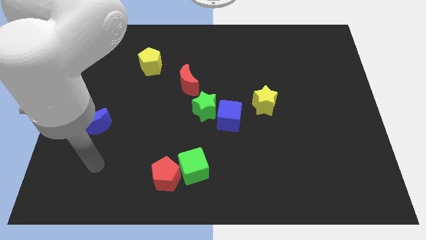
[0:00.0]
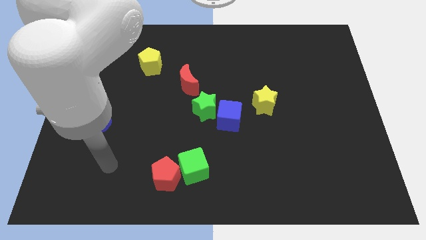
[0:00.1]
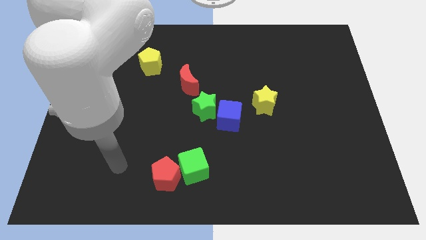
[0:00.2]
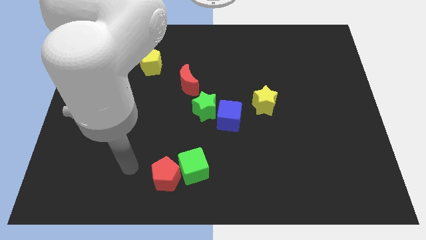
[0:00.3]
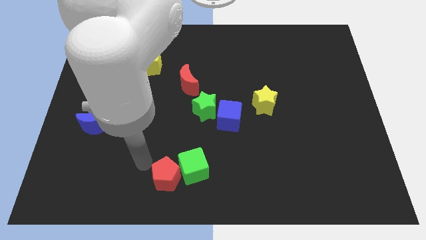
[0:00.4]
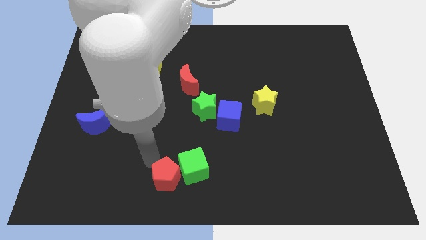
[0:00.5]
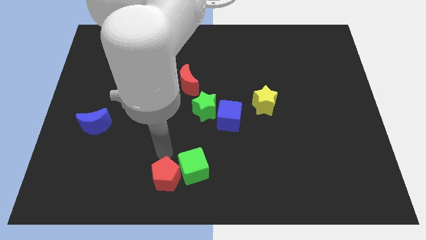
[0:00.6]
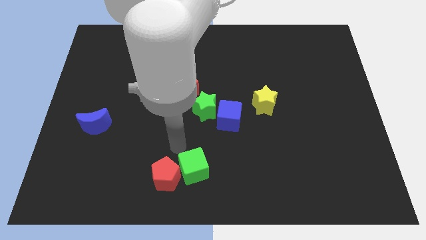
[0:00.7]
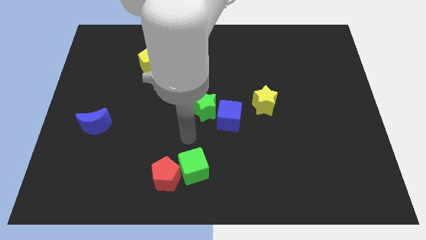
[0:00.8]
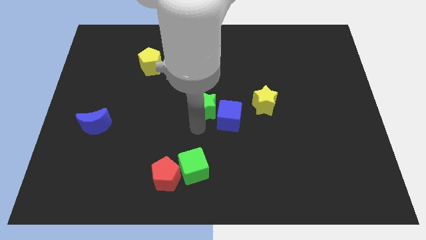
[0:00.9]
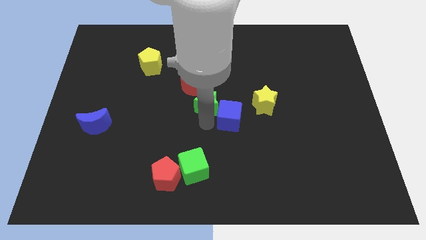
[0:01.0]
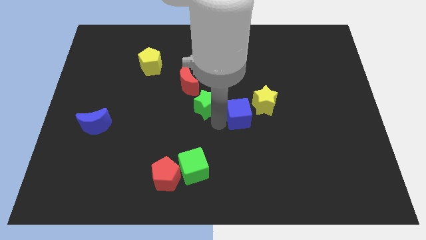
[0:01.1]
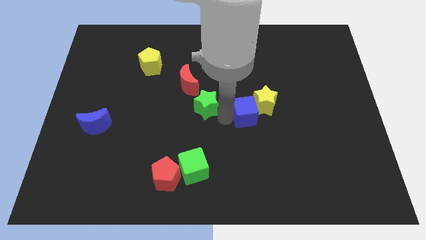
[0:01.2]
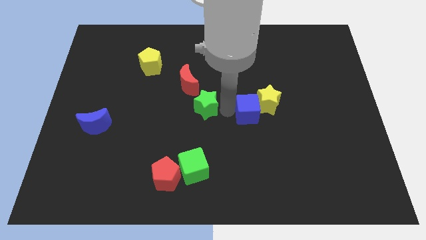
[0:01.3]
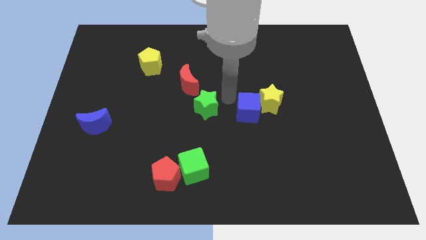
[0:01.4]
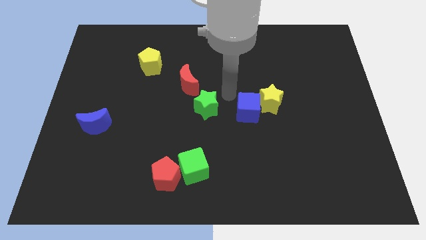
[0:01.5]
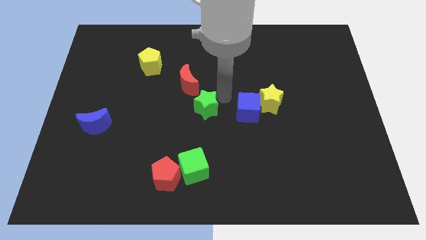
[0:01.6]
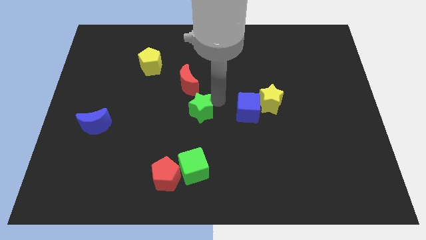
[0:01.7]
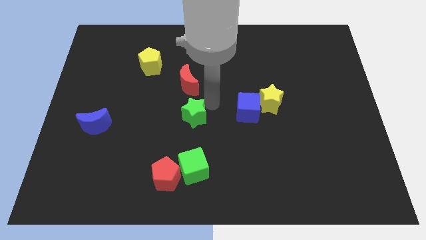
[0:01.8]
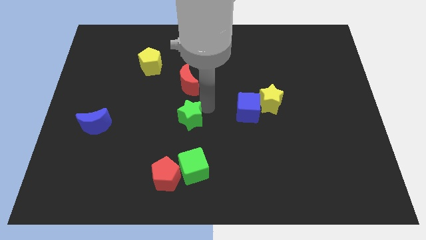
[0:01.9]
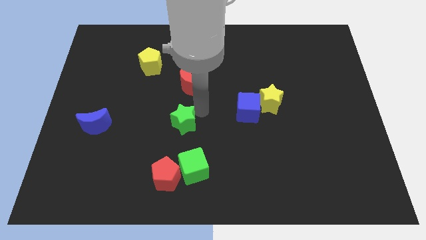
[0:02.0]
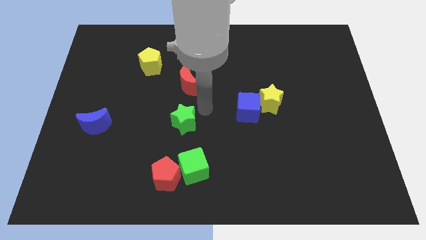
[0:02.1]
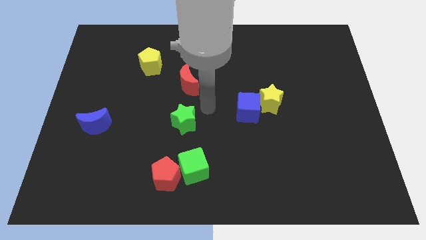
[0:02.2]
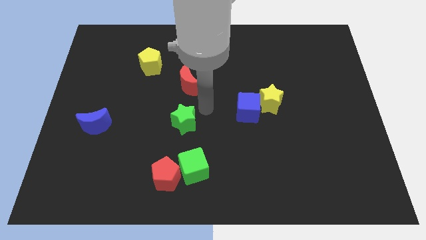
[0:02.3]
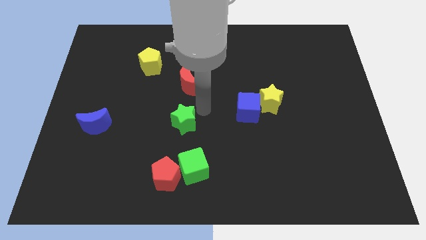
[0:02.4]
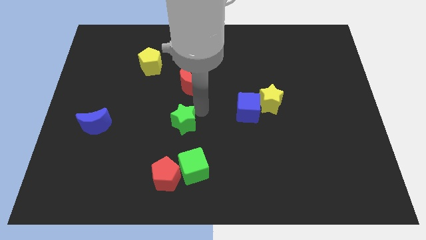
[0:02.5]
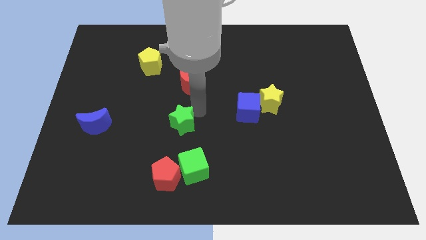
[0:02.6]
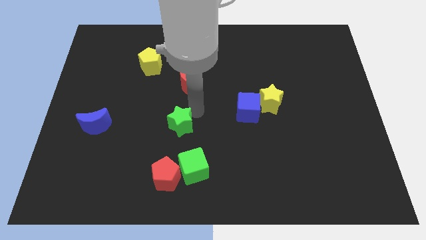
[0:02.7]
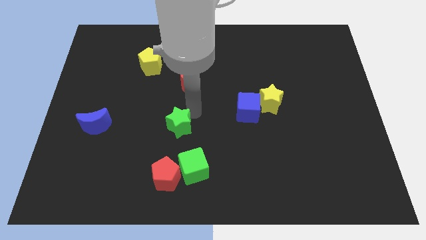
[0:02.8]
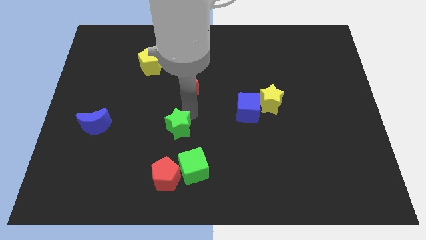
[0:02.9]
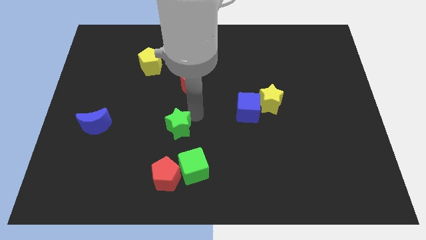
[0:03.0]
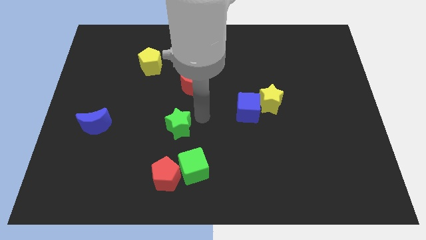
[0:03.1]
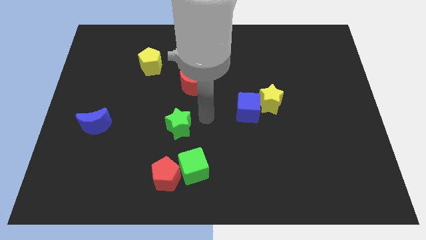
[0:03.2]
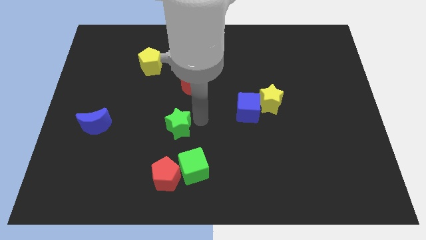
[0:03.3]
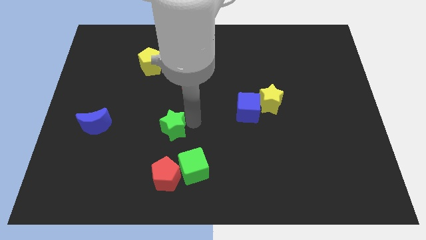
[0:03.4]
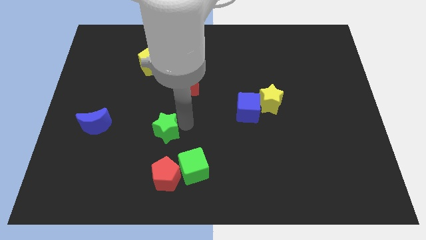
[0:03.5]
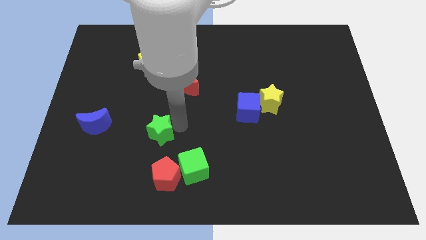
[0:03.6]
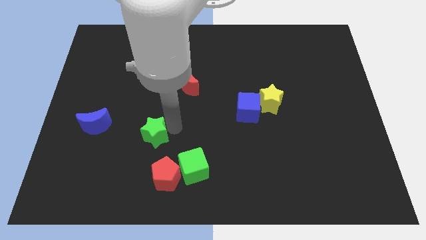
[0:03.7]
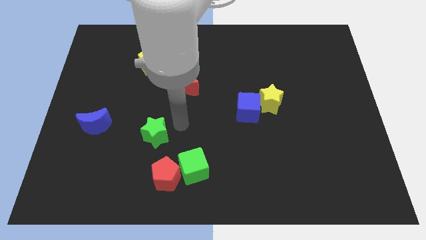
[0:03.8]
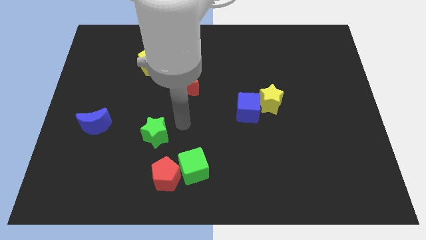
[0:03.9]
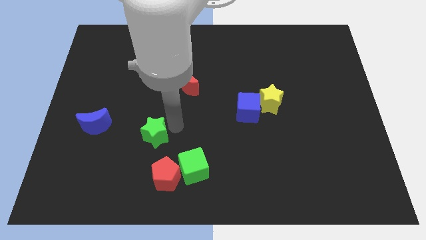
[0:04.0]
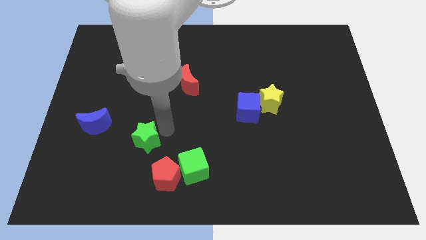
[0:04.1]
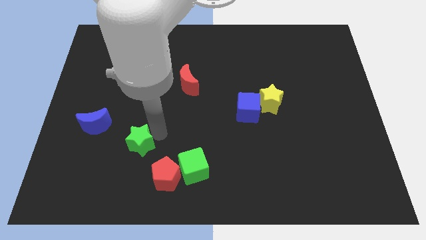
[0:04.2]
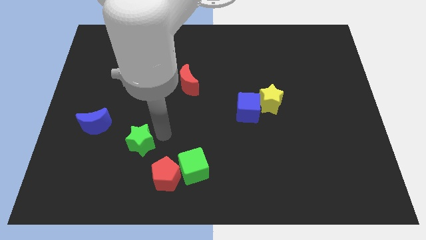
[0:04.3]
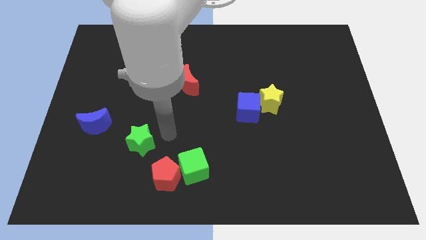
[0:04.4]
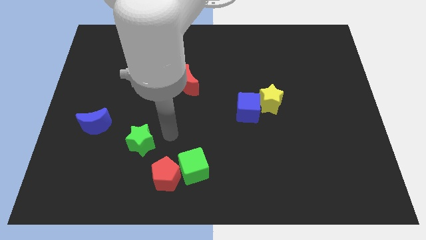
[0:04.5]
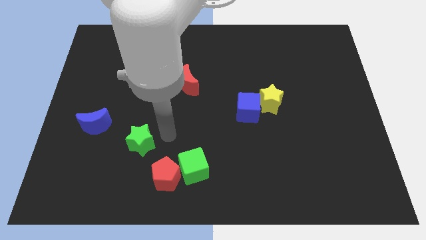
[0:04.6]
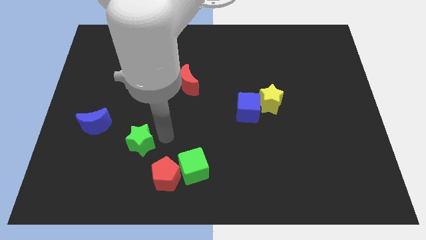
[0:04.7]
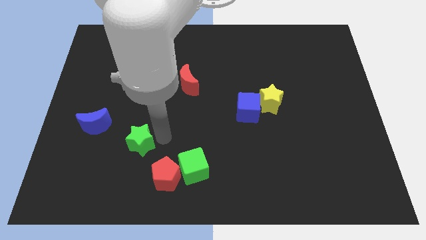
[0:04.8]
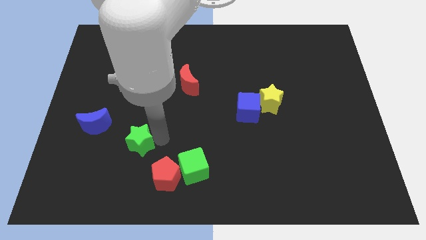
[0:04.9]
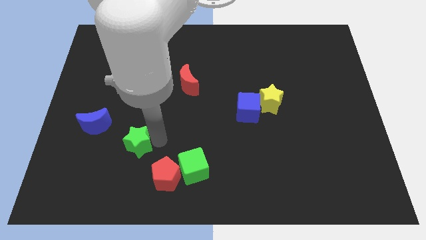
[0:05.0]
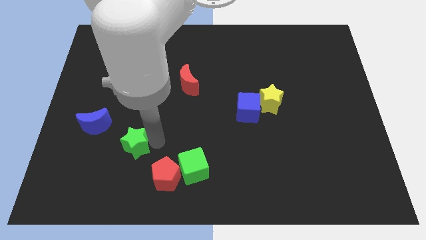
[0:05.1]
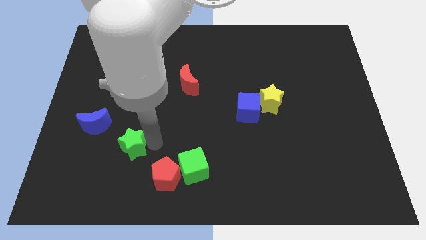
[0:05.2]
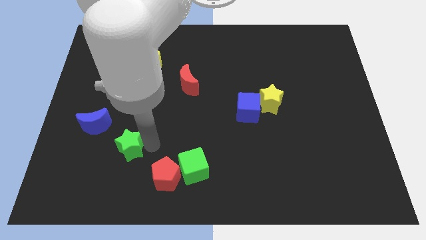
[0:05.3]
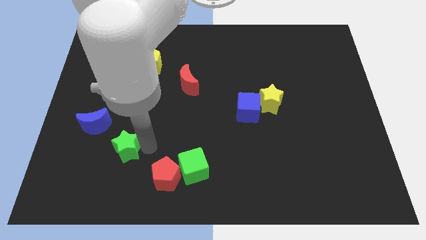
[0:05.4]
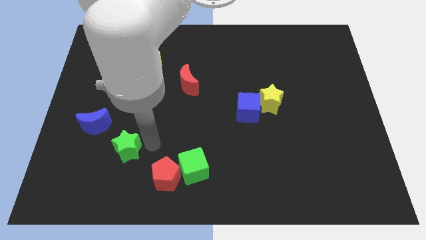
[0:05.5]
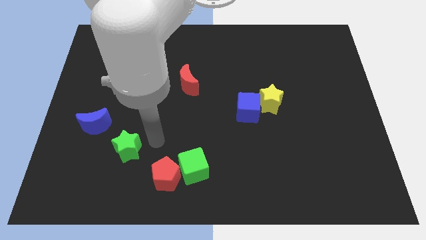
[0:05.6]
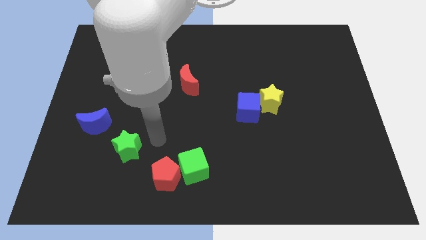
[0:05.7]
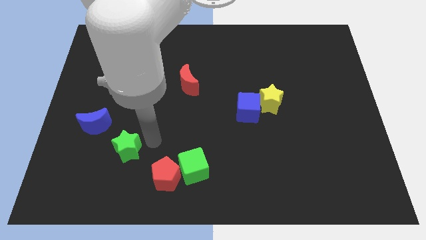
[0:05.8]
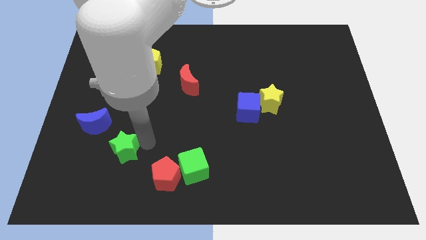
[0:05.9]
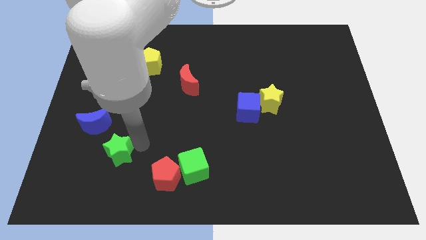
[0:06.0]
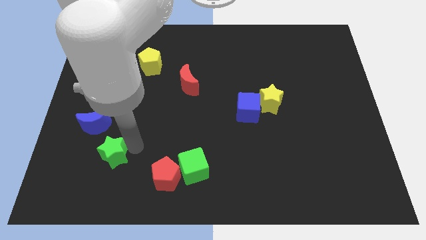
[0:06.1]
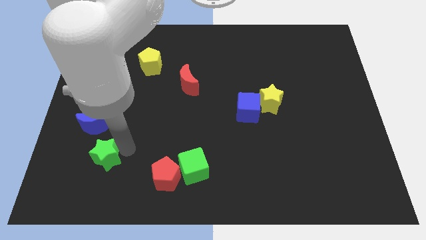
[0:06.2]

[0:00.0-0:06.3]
put the green star below the blue moon
